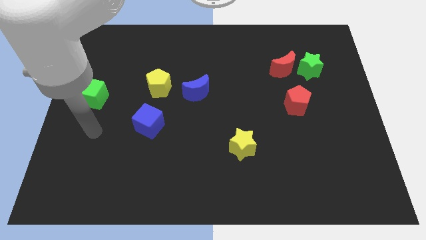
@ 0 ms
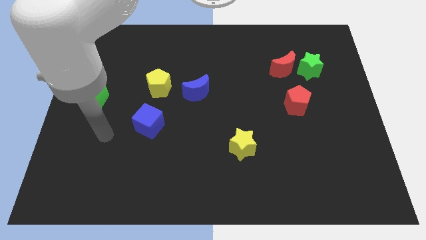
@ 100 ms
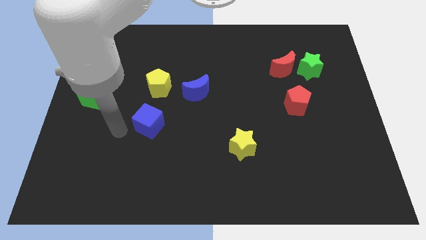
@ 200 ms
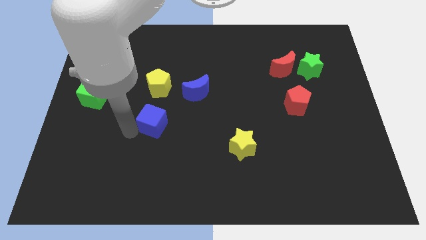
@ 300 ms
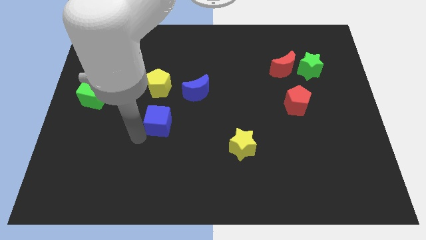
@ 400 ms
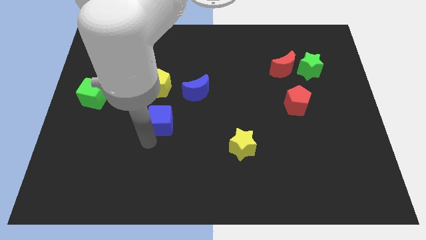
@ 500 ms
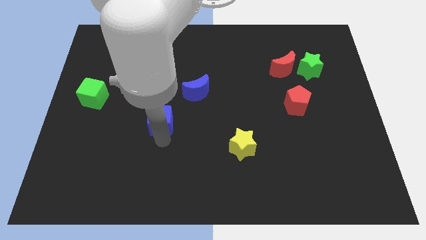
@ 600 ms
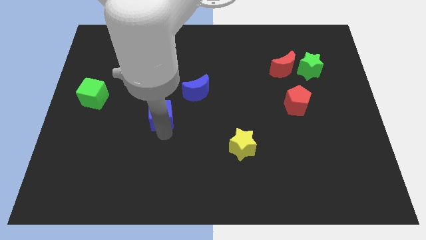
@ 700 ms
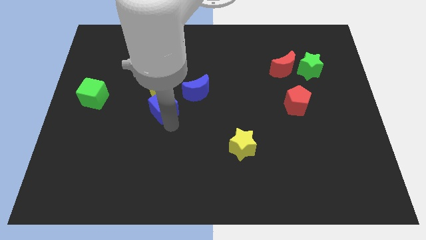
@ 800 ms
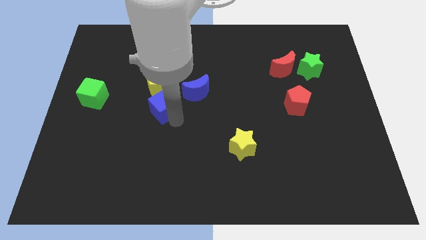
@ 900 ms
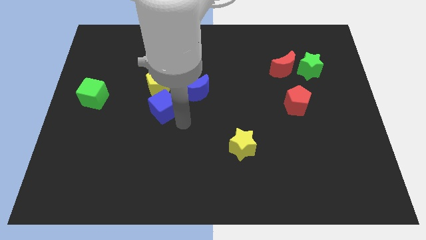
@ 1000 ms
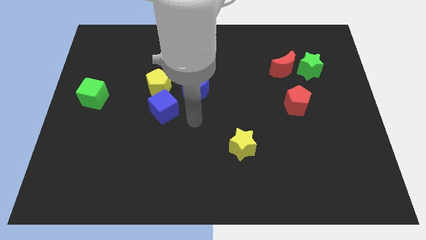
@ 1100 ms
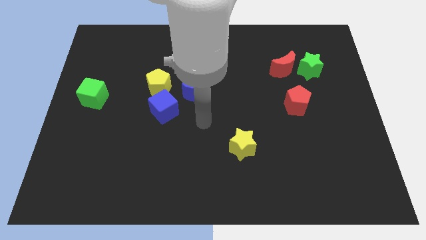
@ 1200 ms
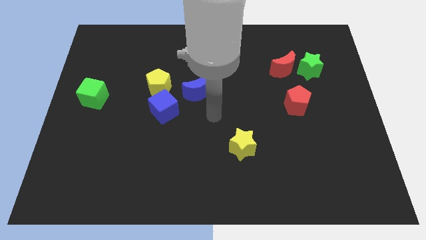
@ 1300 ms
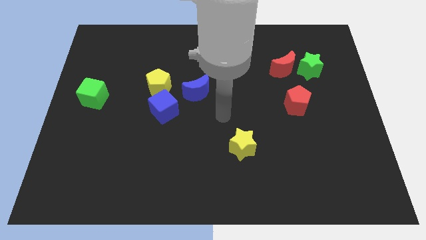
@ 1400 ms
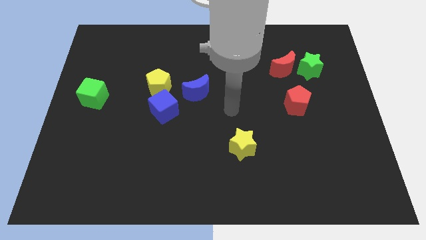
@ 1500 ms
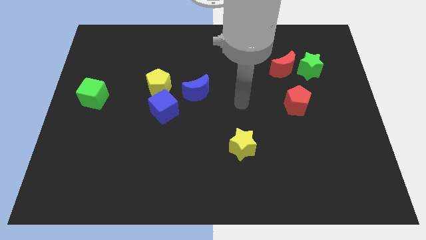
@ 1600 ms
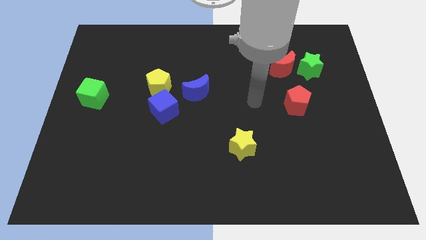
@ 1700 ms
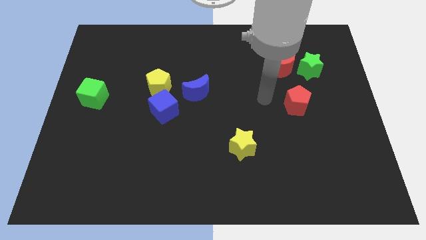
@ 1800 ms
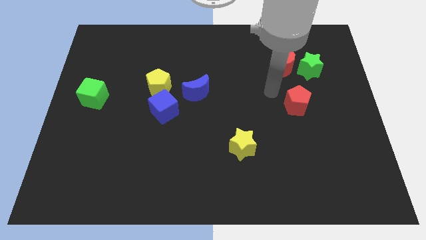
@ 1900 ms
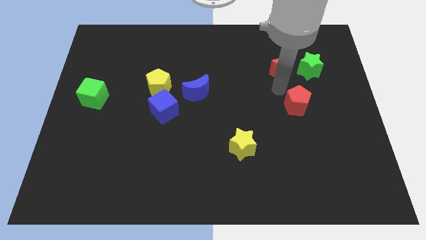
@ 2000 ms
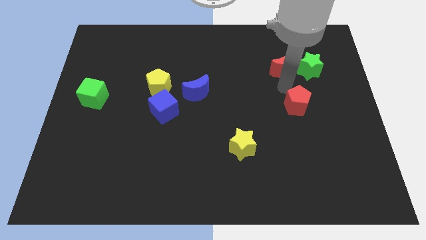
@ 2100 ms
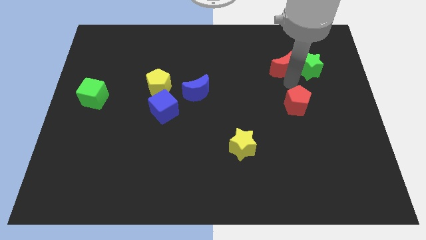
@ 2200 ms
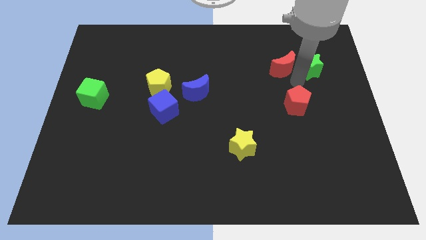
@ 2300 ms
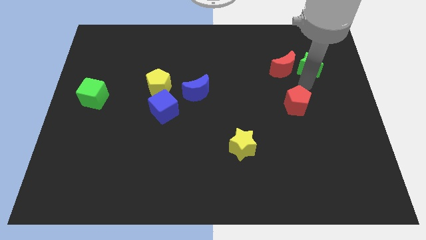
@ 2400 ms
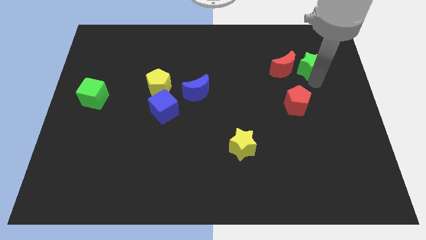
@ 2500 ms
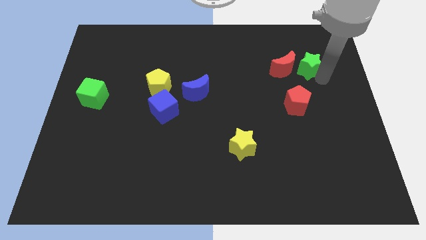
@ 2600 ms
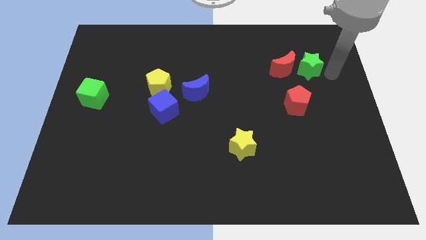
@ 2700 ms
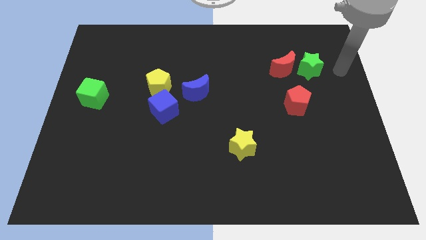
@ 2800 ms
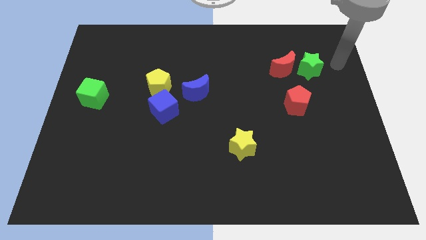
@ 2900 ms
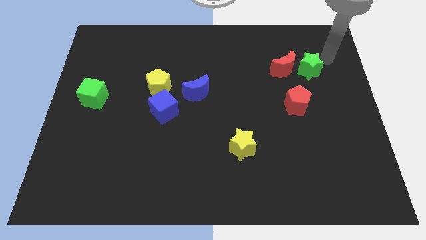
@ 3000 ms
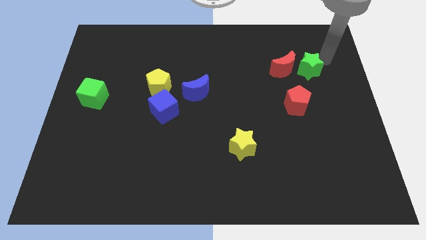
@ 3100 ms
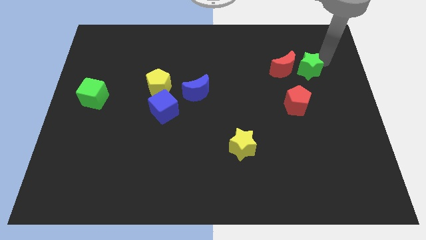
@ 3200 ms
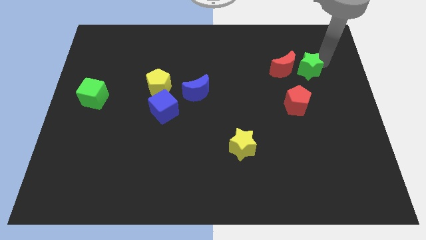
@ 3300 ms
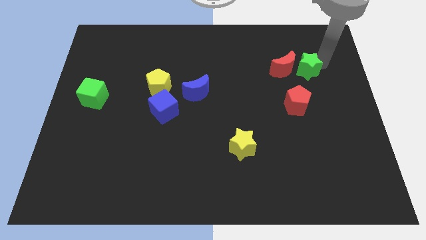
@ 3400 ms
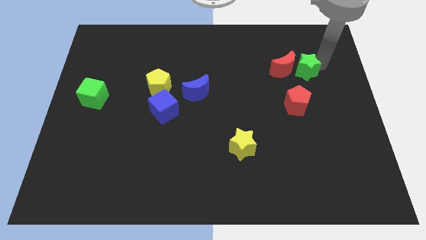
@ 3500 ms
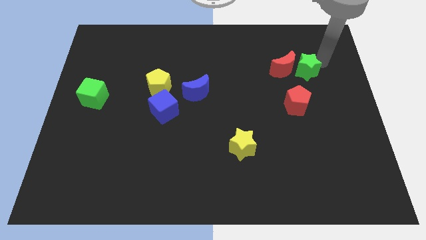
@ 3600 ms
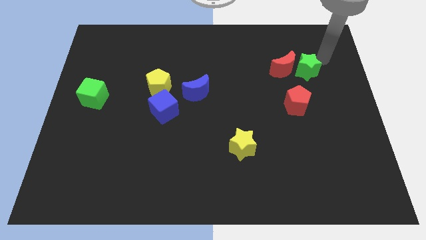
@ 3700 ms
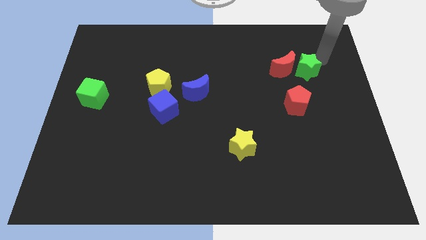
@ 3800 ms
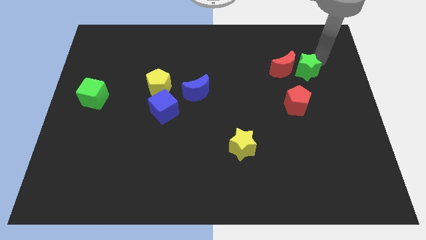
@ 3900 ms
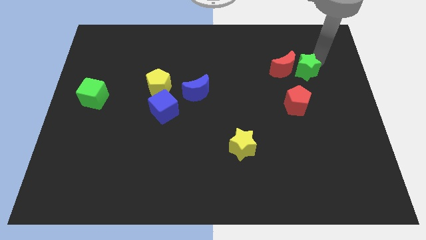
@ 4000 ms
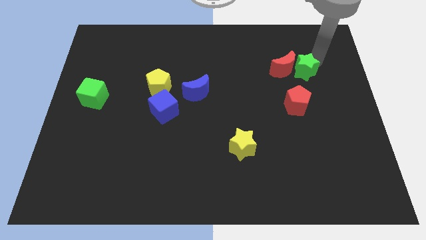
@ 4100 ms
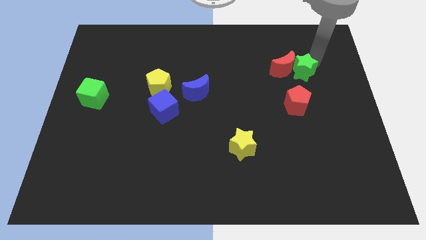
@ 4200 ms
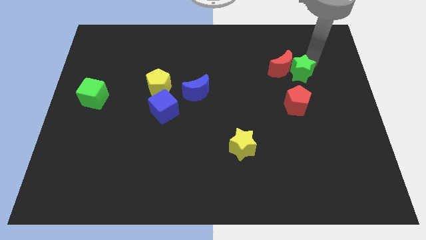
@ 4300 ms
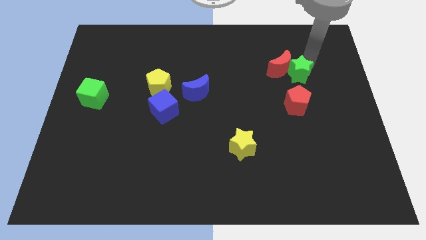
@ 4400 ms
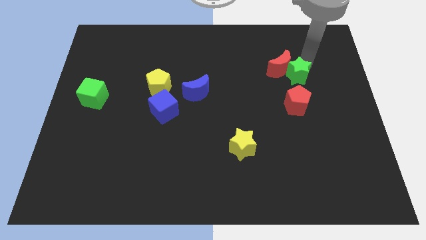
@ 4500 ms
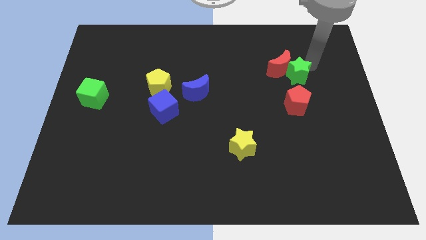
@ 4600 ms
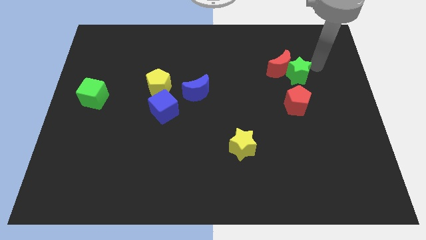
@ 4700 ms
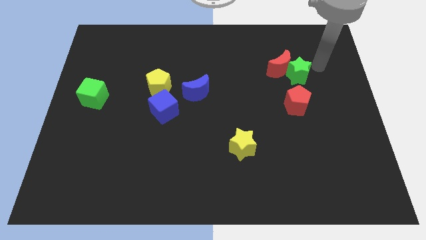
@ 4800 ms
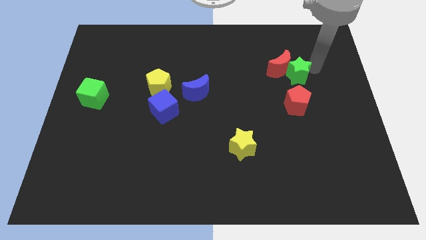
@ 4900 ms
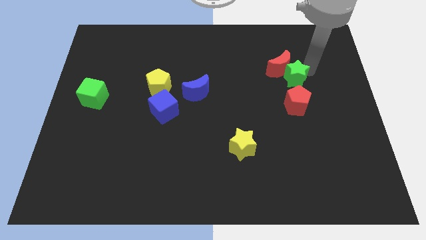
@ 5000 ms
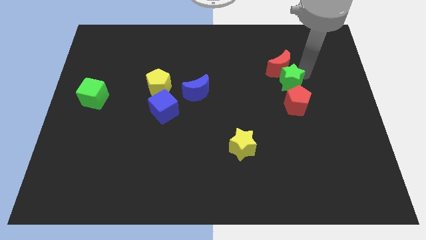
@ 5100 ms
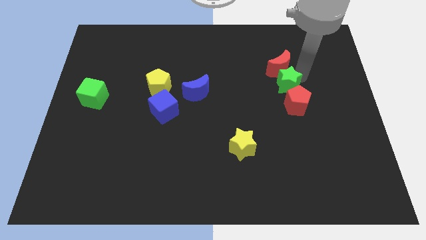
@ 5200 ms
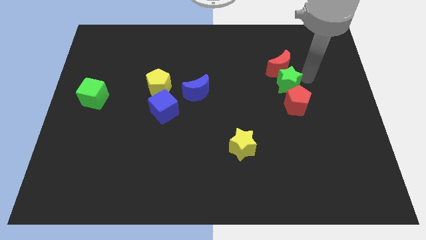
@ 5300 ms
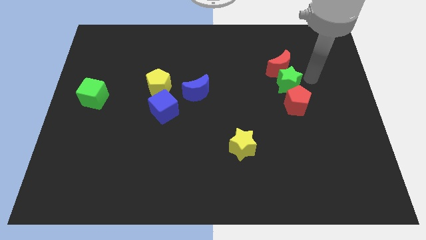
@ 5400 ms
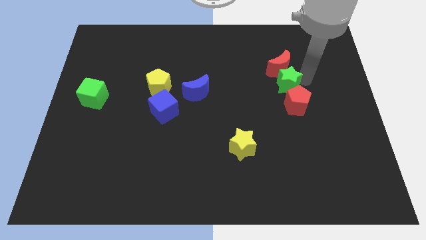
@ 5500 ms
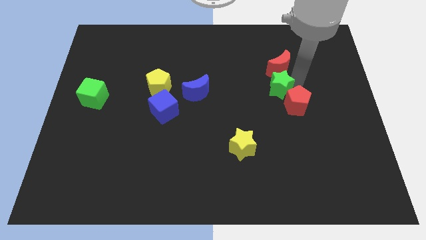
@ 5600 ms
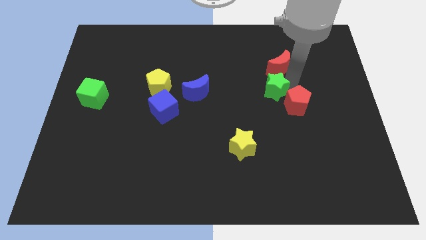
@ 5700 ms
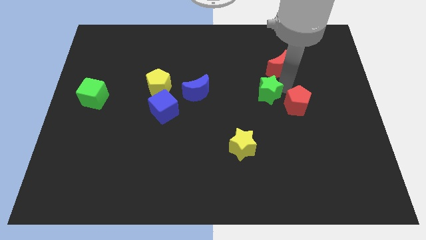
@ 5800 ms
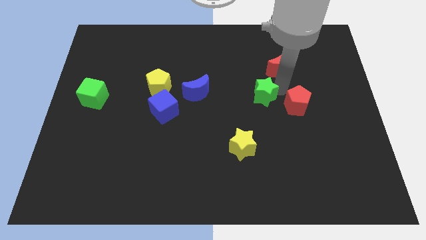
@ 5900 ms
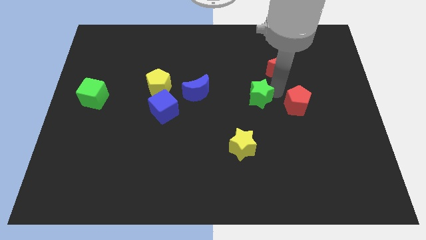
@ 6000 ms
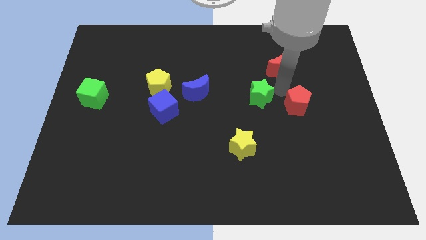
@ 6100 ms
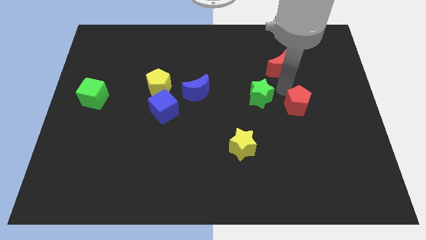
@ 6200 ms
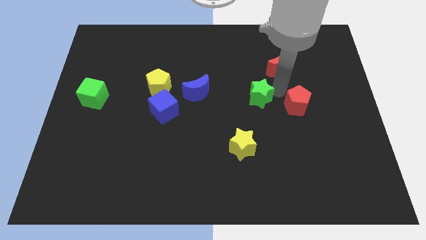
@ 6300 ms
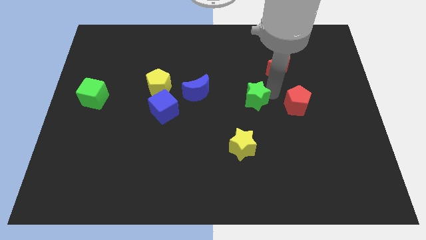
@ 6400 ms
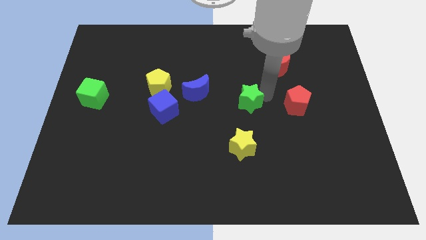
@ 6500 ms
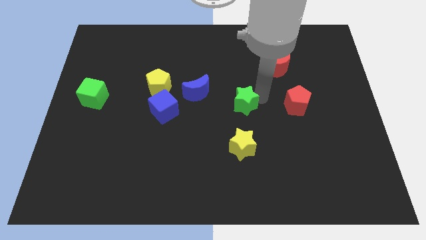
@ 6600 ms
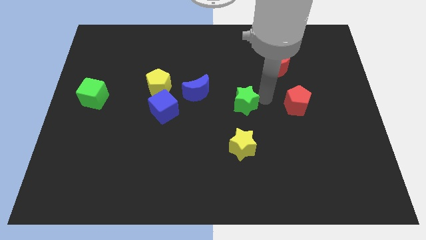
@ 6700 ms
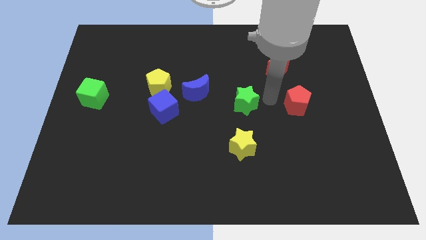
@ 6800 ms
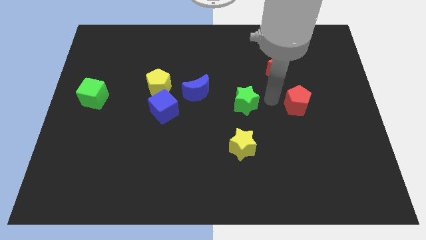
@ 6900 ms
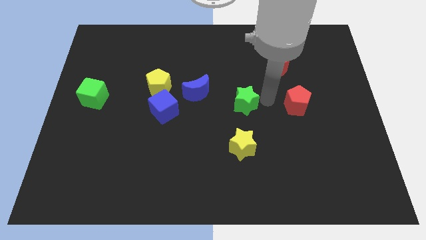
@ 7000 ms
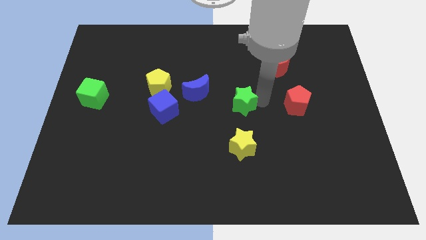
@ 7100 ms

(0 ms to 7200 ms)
push the green star diagonally down and left

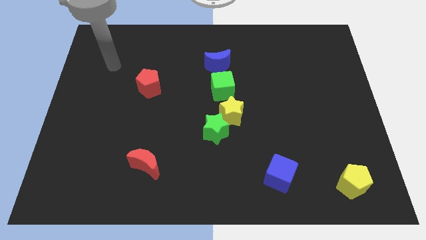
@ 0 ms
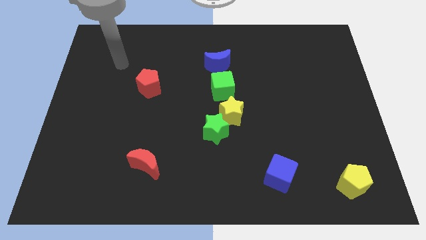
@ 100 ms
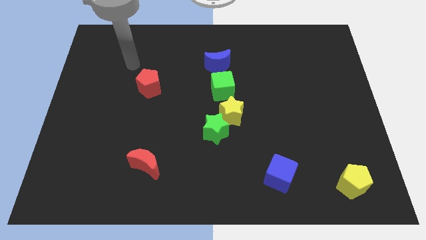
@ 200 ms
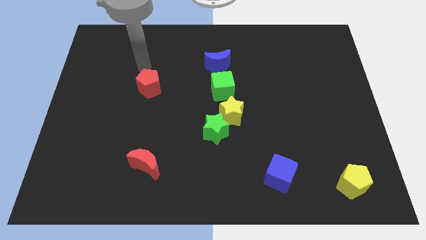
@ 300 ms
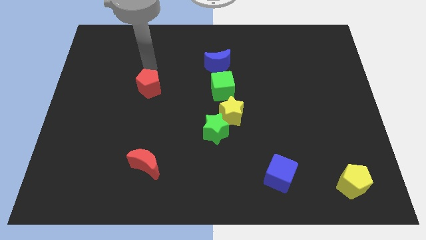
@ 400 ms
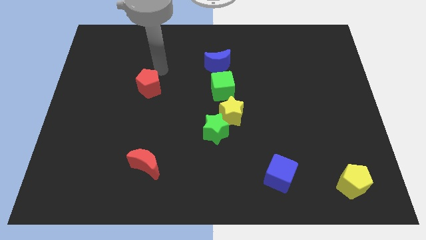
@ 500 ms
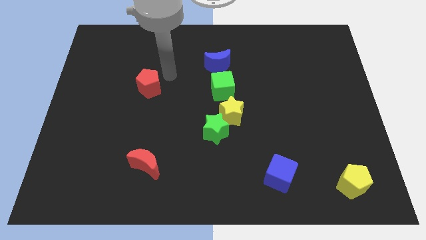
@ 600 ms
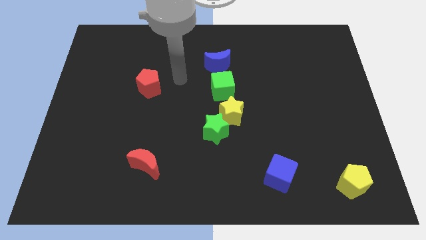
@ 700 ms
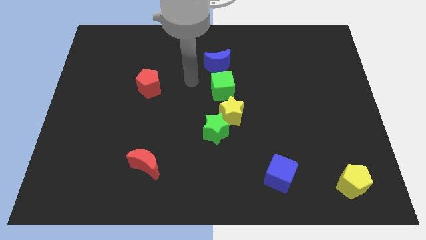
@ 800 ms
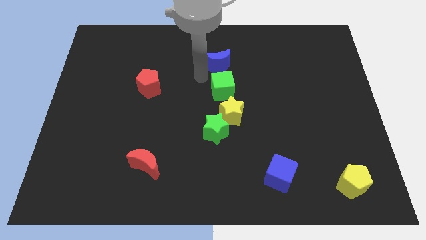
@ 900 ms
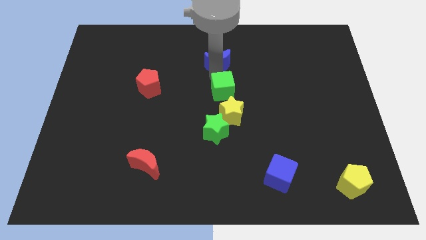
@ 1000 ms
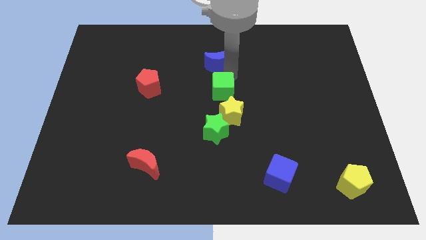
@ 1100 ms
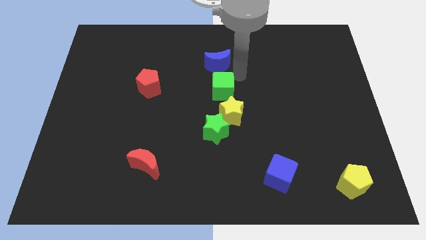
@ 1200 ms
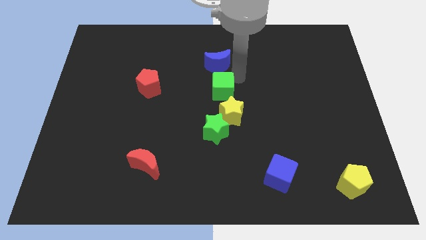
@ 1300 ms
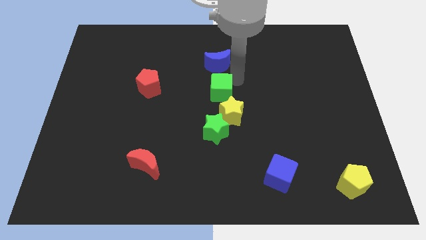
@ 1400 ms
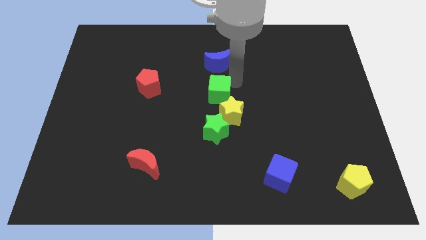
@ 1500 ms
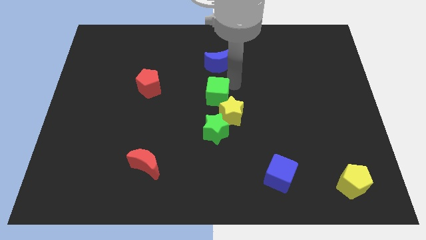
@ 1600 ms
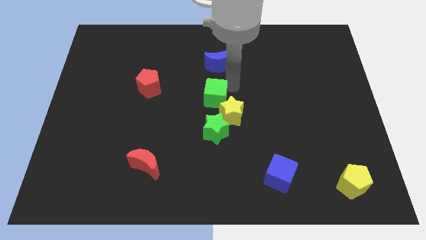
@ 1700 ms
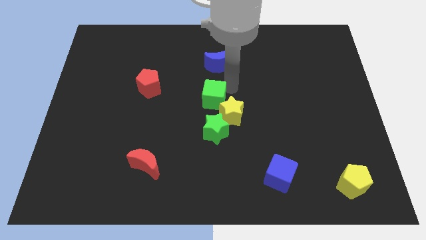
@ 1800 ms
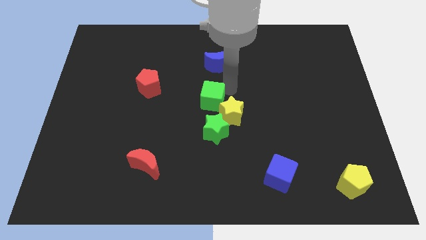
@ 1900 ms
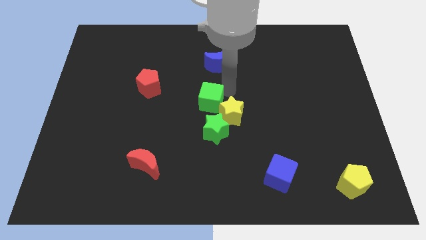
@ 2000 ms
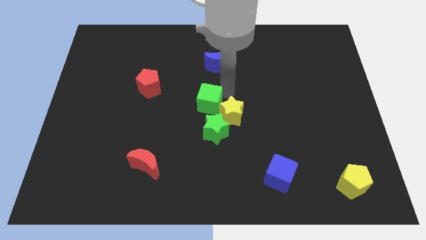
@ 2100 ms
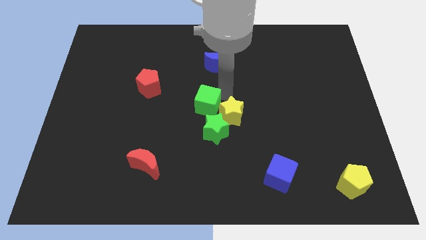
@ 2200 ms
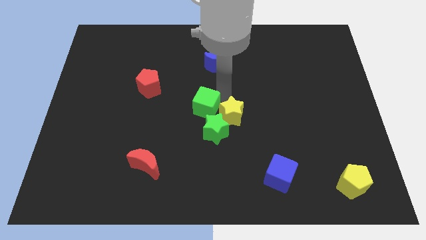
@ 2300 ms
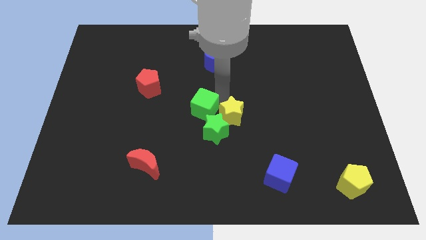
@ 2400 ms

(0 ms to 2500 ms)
slightly move the green cube downwards and to the left diagonally
